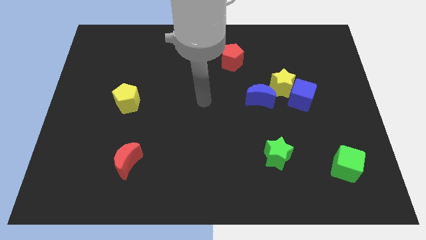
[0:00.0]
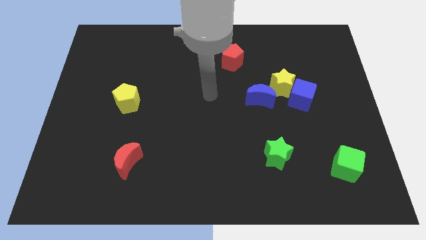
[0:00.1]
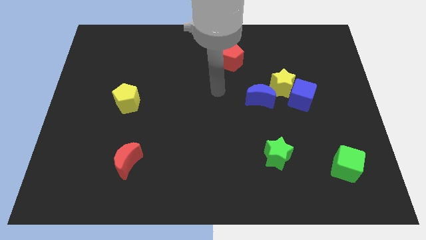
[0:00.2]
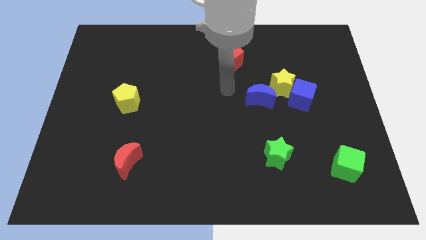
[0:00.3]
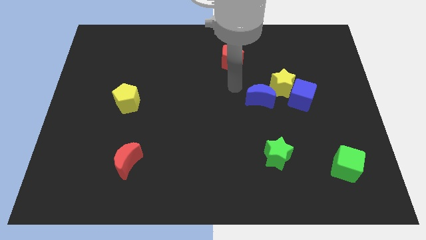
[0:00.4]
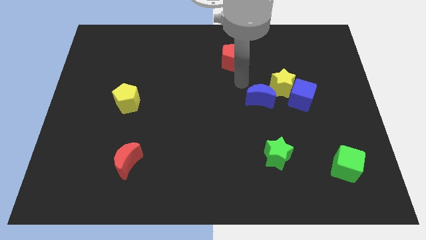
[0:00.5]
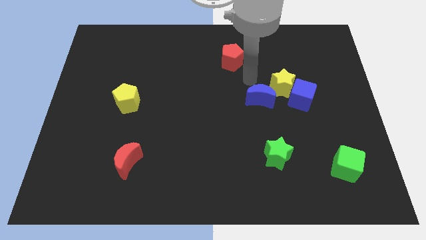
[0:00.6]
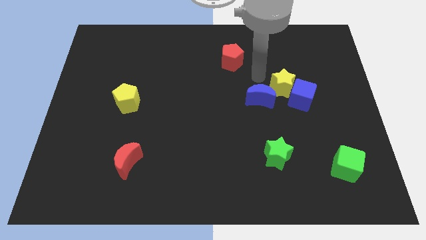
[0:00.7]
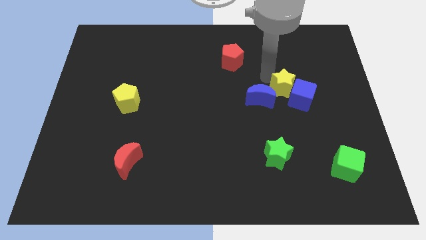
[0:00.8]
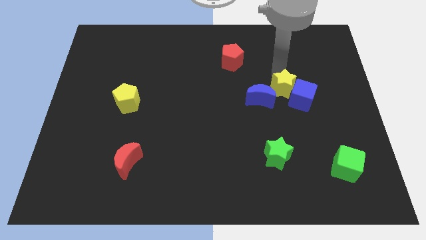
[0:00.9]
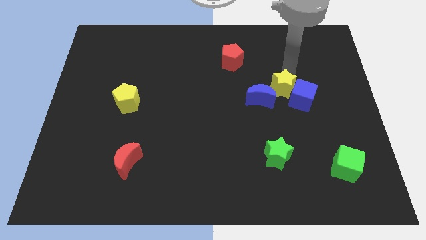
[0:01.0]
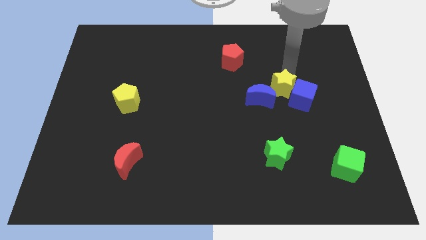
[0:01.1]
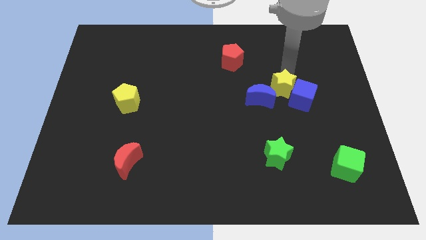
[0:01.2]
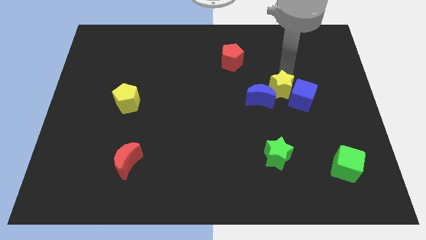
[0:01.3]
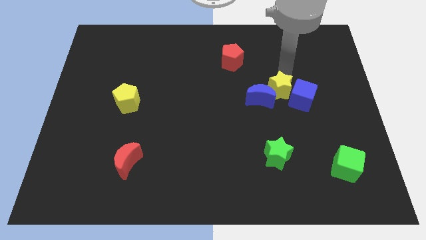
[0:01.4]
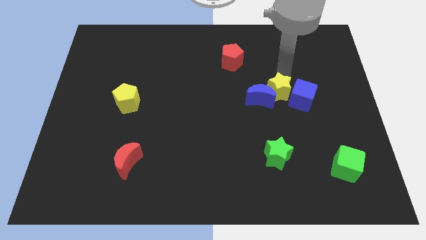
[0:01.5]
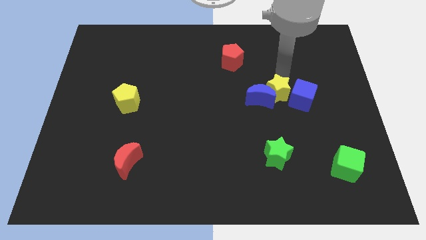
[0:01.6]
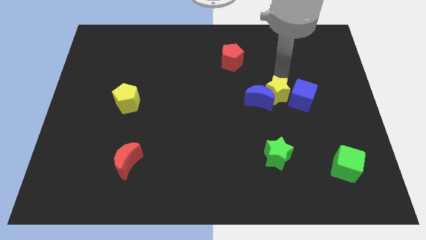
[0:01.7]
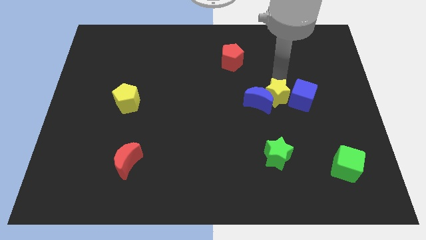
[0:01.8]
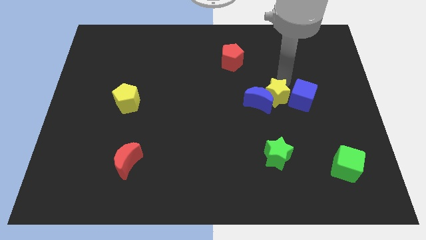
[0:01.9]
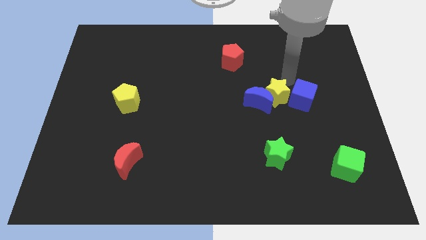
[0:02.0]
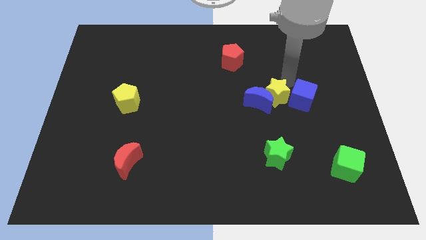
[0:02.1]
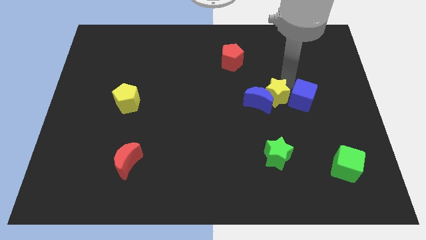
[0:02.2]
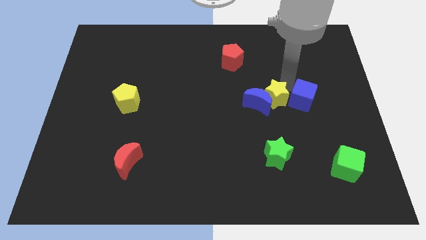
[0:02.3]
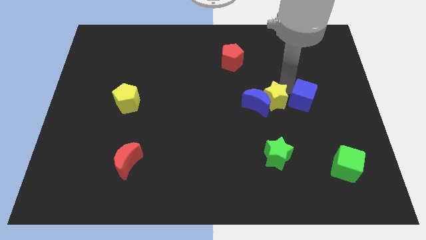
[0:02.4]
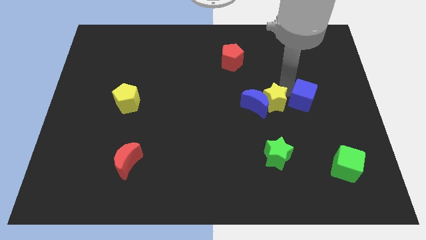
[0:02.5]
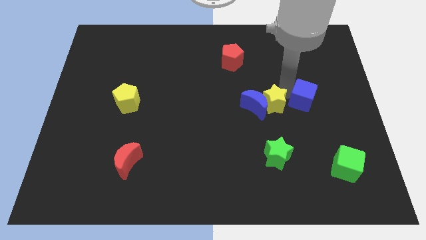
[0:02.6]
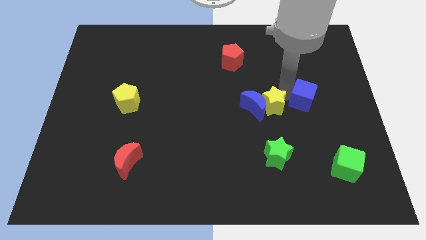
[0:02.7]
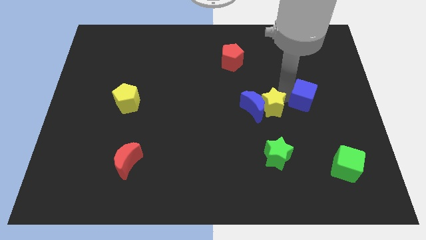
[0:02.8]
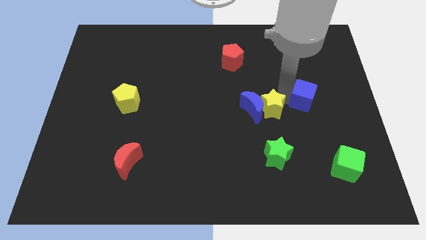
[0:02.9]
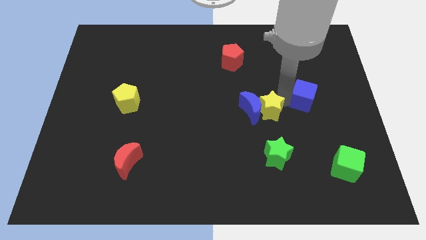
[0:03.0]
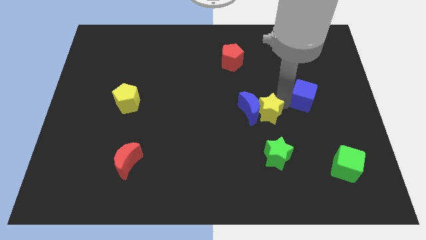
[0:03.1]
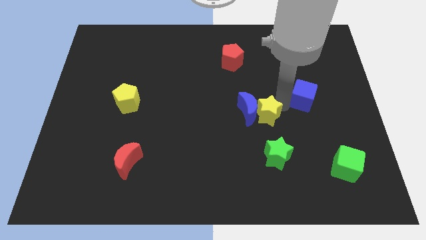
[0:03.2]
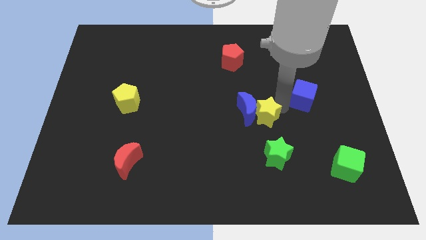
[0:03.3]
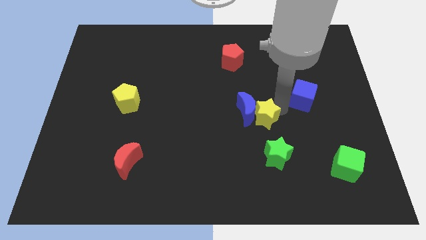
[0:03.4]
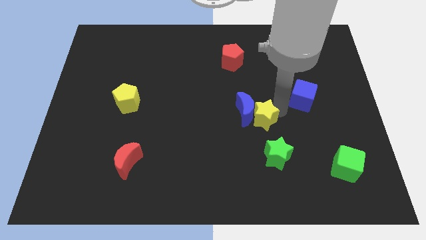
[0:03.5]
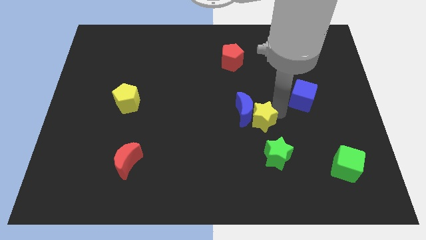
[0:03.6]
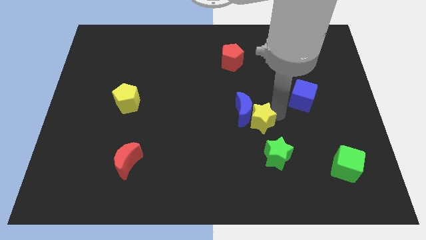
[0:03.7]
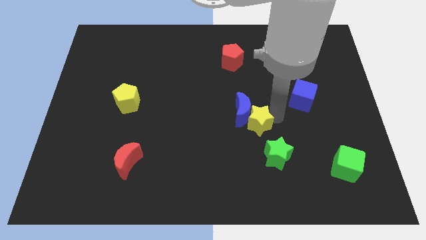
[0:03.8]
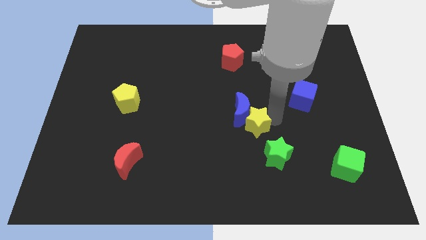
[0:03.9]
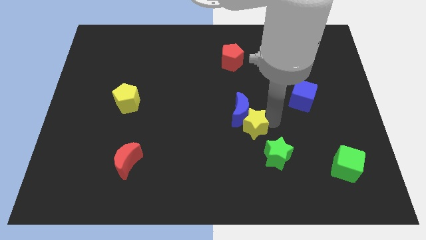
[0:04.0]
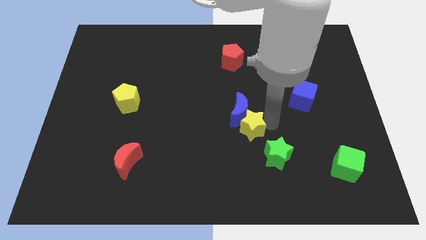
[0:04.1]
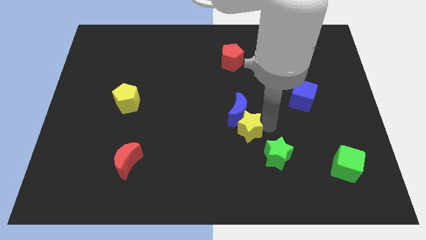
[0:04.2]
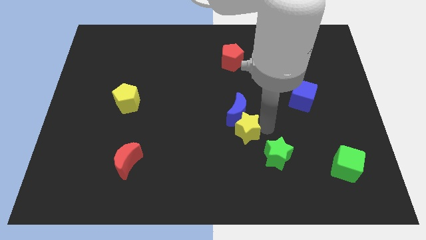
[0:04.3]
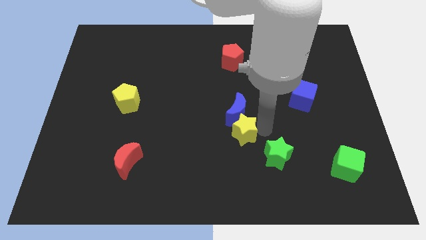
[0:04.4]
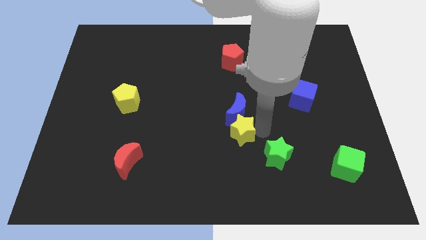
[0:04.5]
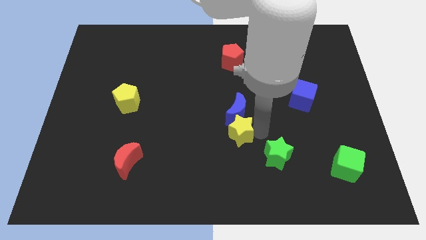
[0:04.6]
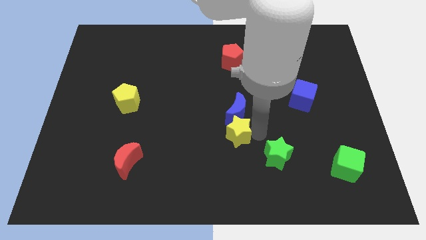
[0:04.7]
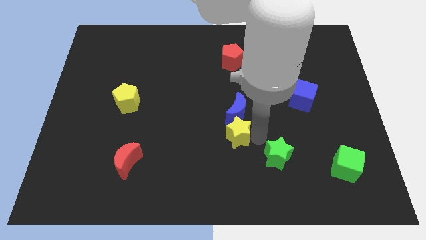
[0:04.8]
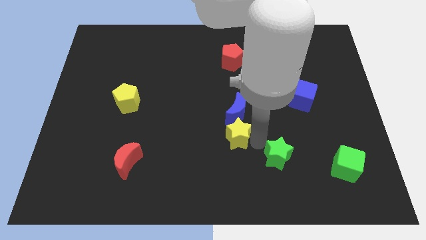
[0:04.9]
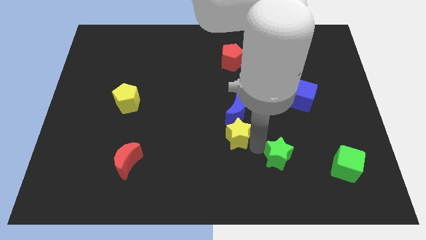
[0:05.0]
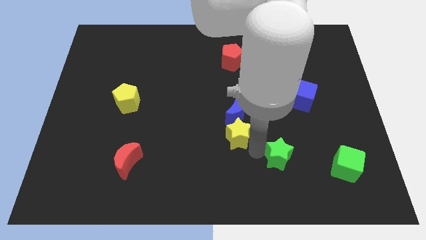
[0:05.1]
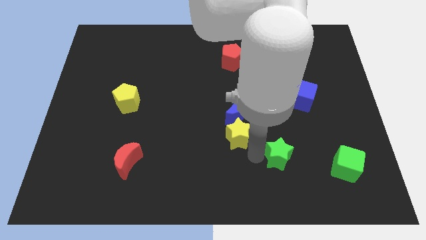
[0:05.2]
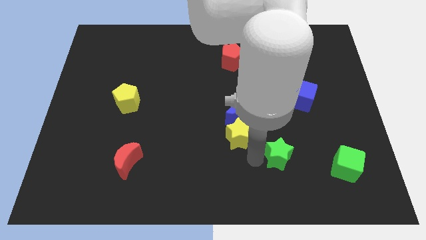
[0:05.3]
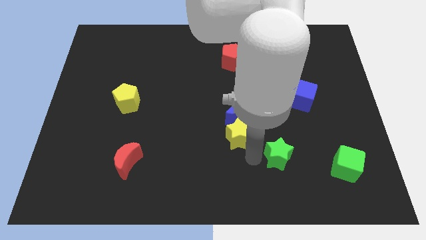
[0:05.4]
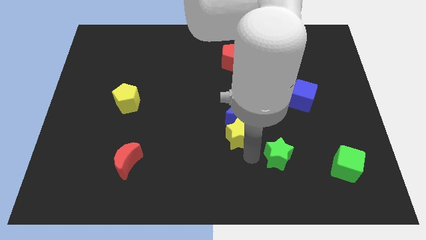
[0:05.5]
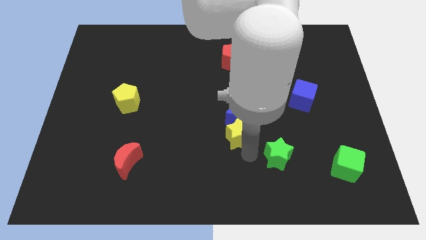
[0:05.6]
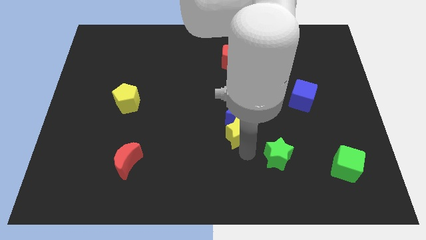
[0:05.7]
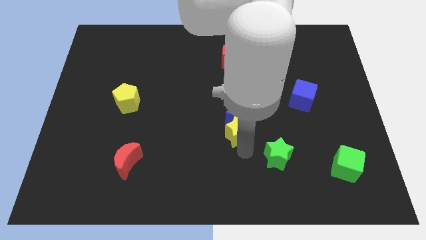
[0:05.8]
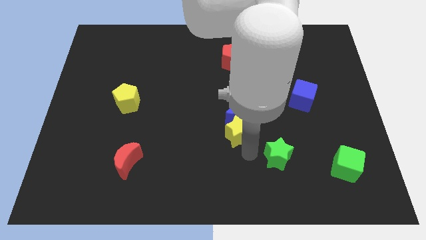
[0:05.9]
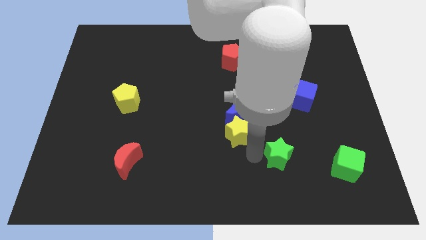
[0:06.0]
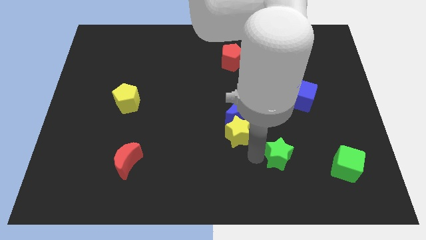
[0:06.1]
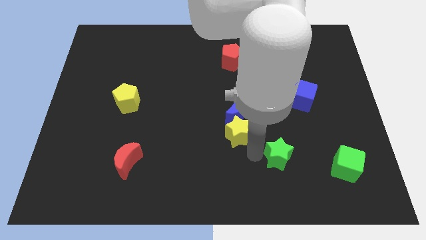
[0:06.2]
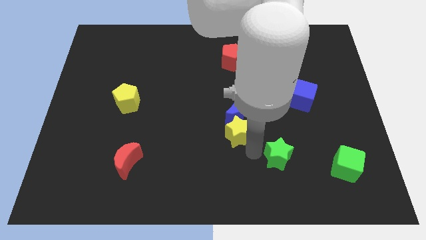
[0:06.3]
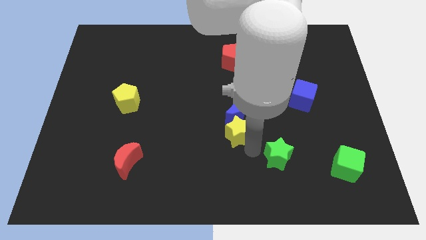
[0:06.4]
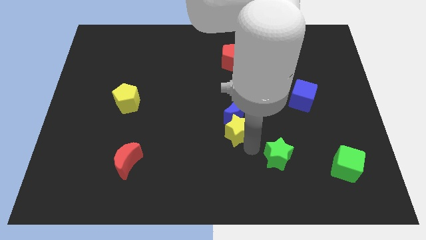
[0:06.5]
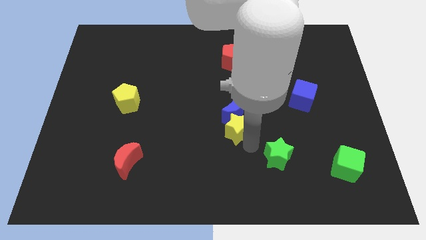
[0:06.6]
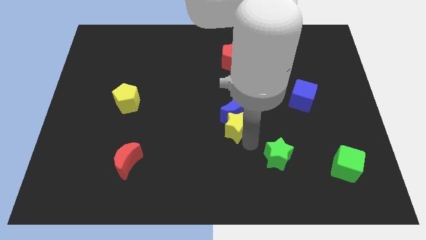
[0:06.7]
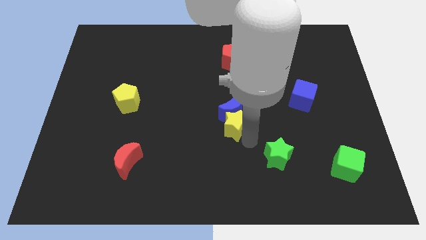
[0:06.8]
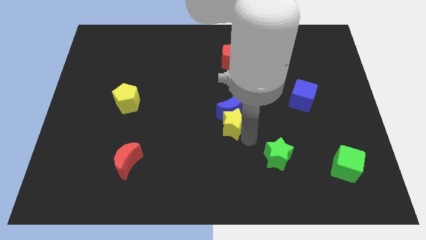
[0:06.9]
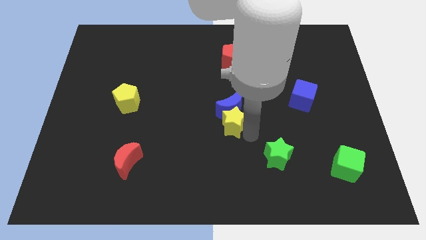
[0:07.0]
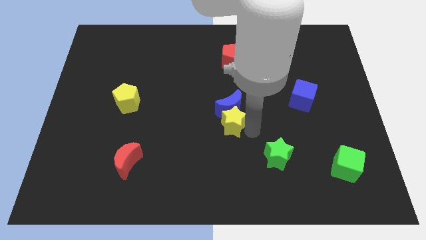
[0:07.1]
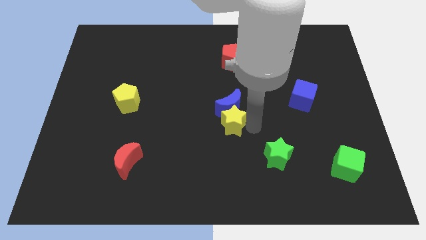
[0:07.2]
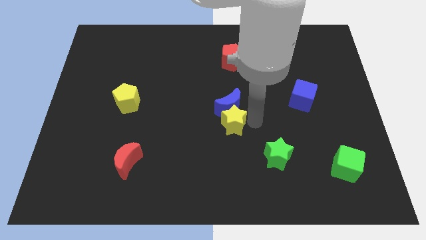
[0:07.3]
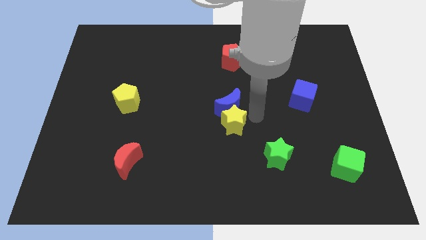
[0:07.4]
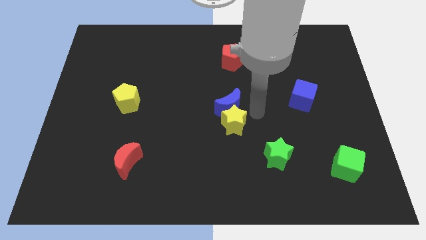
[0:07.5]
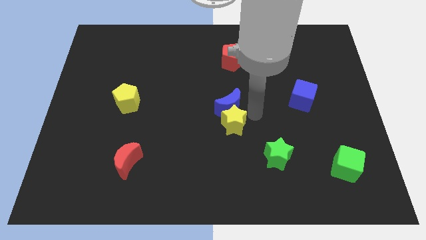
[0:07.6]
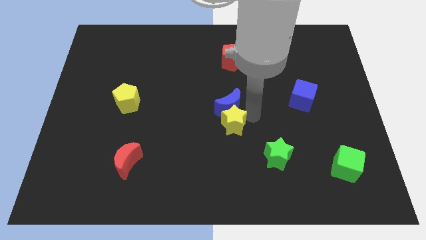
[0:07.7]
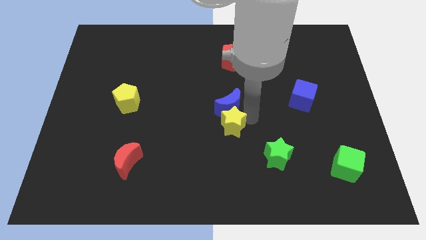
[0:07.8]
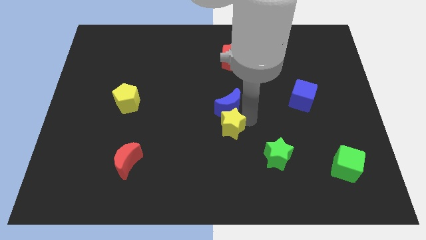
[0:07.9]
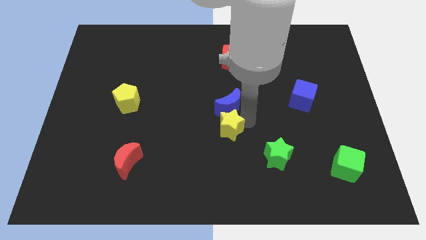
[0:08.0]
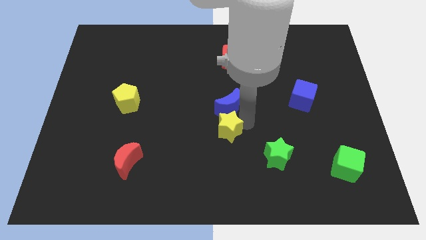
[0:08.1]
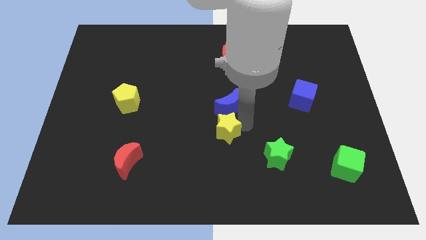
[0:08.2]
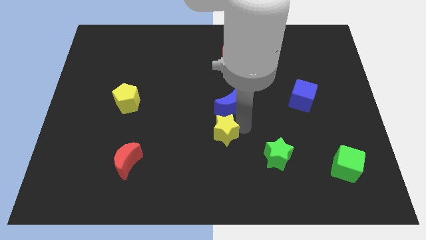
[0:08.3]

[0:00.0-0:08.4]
move the yellow star down and to the left diagonally
